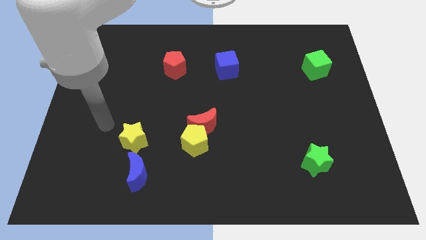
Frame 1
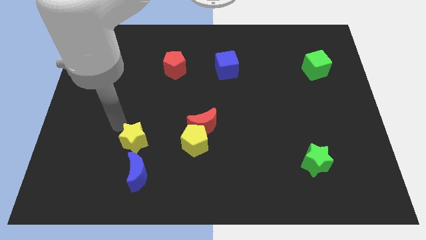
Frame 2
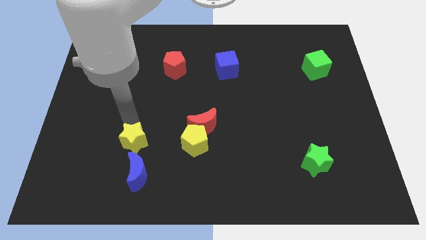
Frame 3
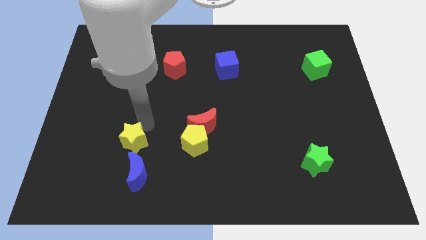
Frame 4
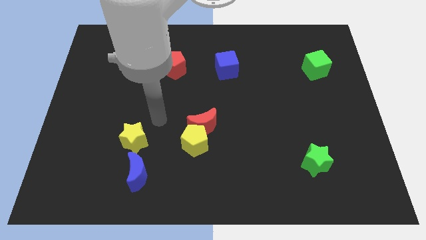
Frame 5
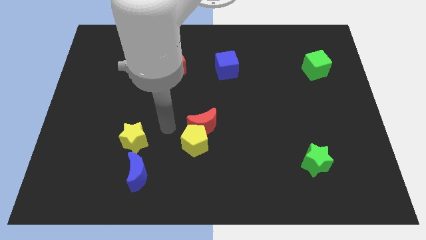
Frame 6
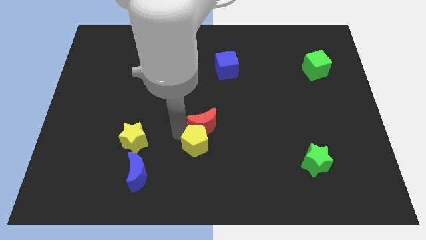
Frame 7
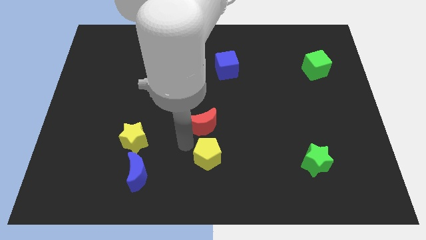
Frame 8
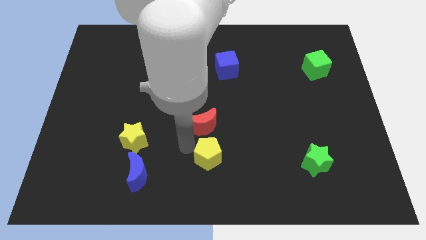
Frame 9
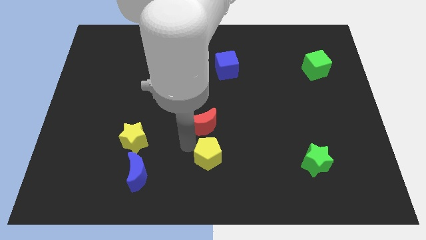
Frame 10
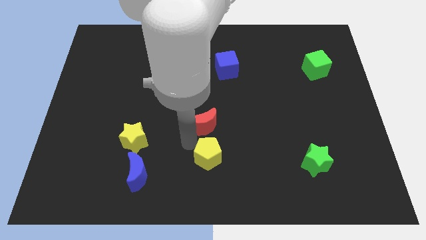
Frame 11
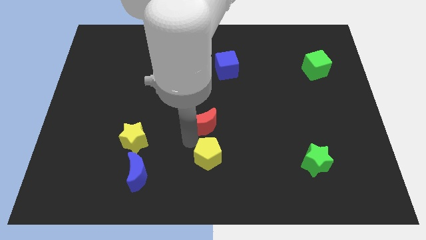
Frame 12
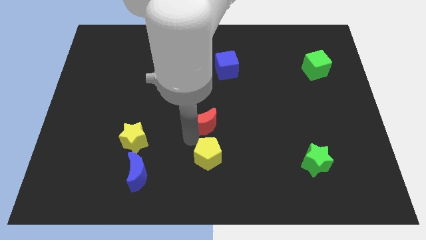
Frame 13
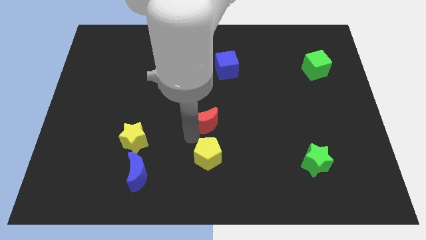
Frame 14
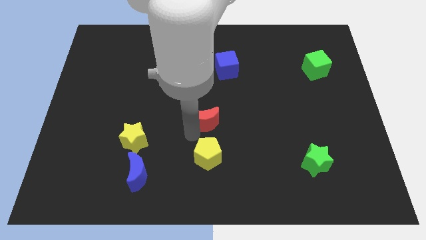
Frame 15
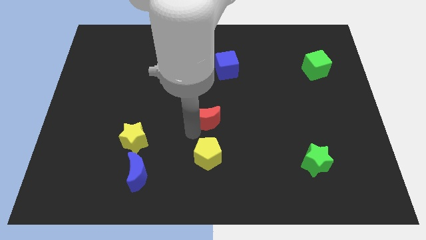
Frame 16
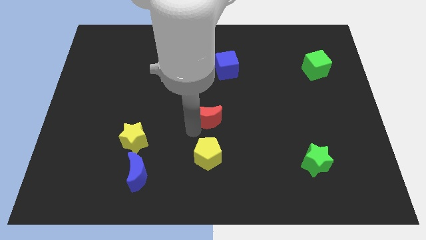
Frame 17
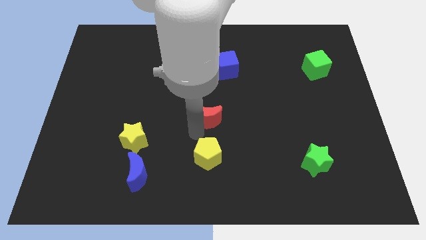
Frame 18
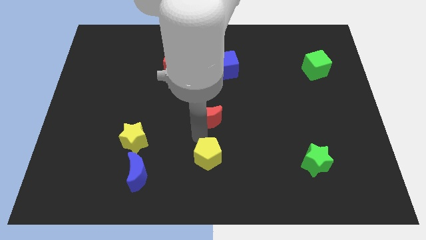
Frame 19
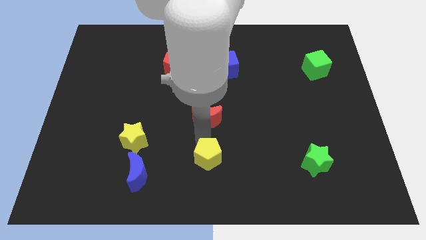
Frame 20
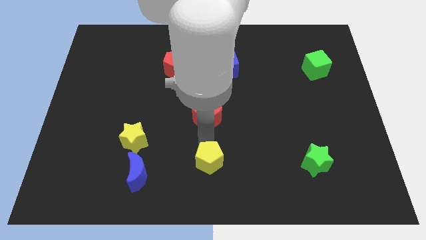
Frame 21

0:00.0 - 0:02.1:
separate the red moon from the yellow pentagon

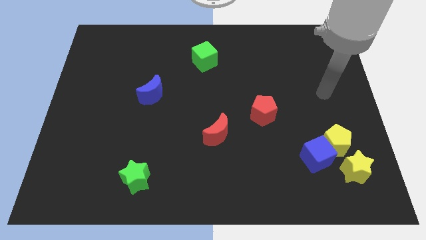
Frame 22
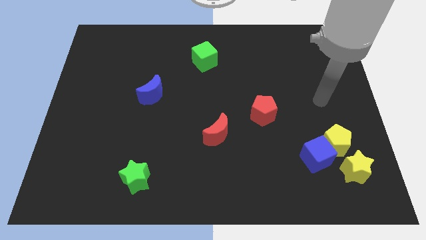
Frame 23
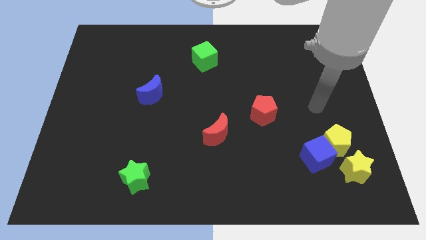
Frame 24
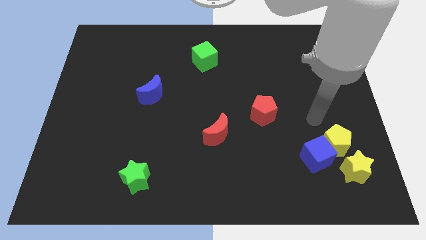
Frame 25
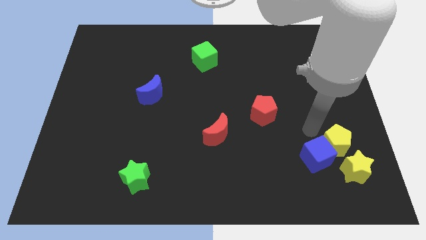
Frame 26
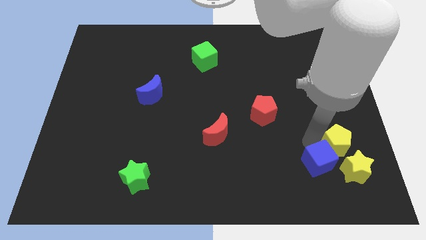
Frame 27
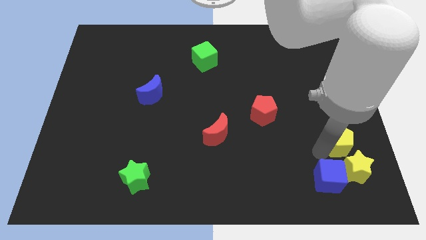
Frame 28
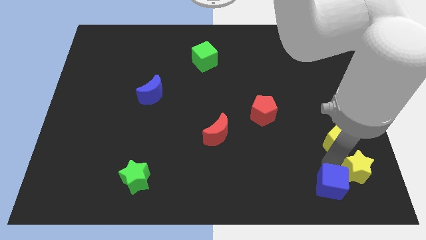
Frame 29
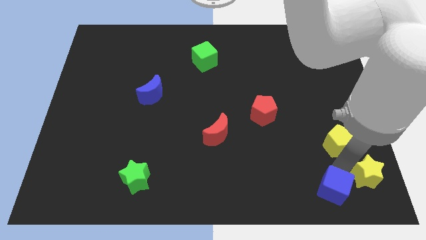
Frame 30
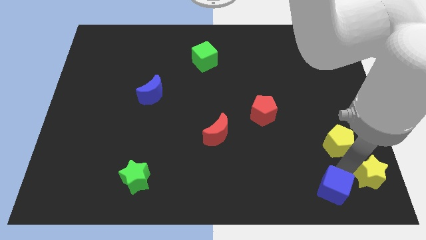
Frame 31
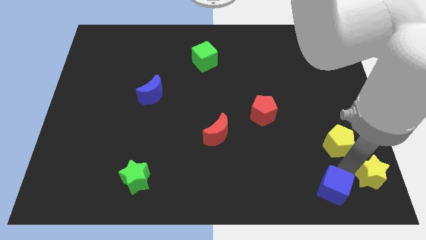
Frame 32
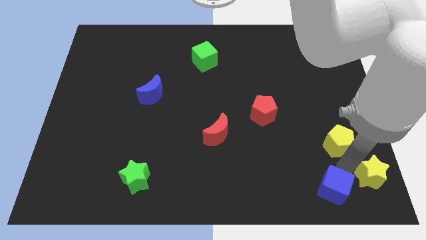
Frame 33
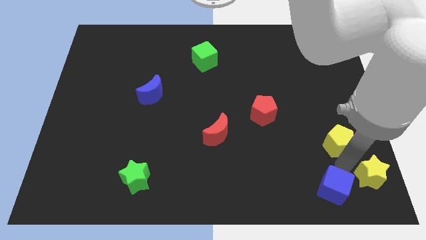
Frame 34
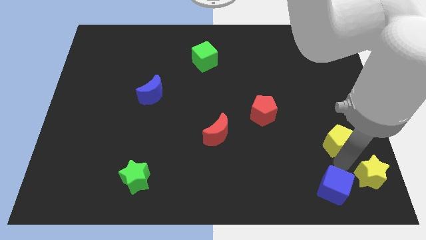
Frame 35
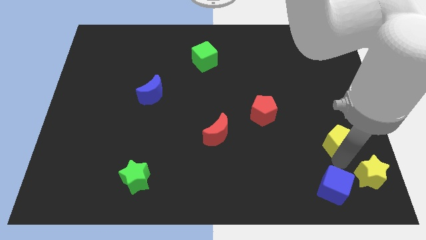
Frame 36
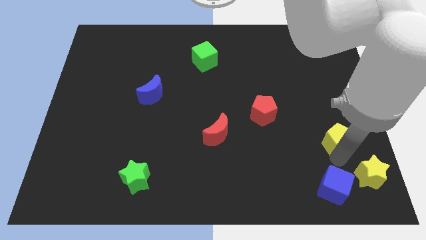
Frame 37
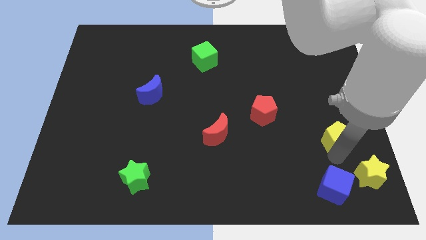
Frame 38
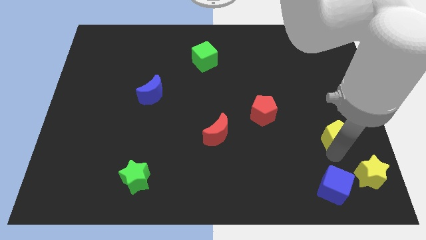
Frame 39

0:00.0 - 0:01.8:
move the yellow pentagon away from the blue cube and yellow star

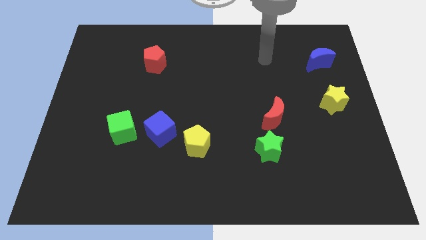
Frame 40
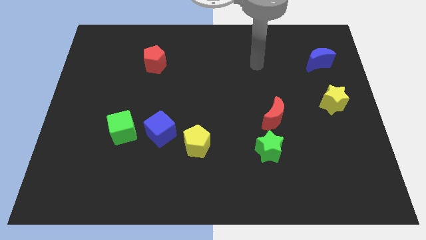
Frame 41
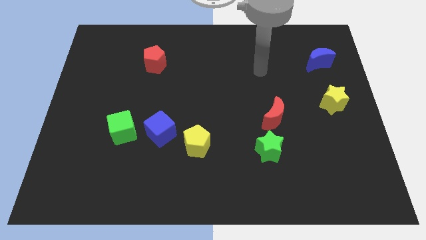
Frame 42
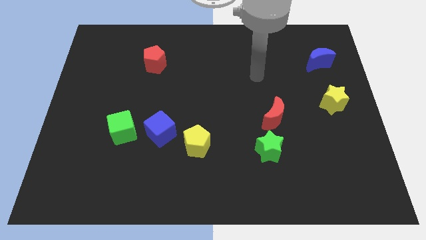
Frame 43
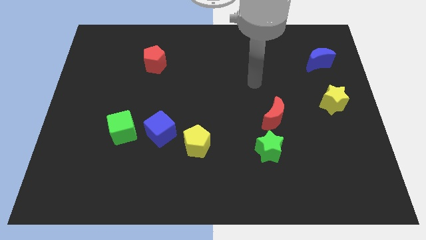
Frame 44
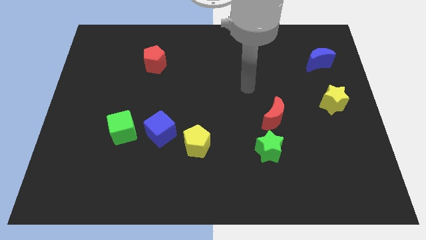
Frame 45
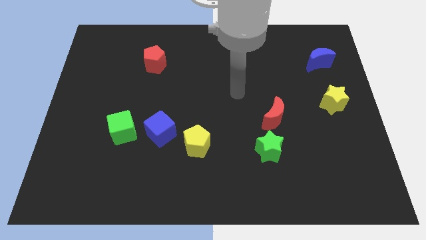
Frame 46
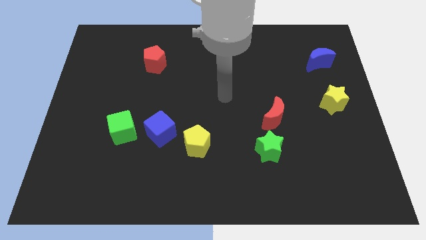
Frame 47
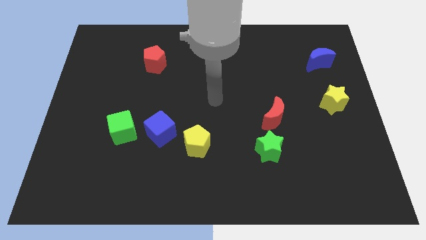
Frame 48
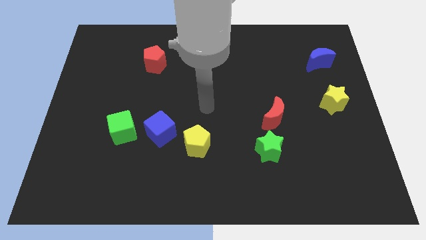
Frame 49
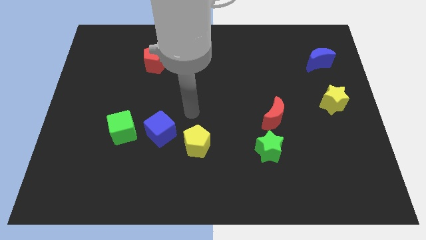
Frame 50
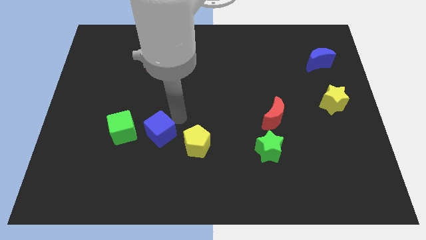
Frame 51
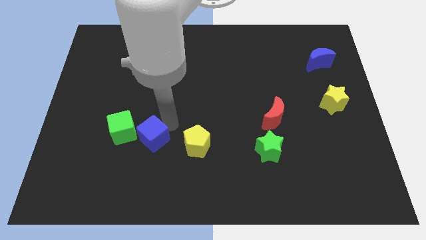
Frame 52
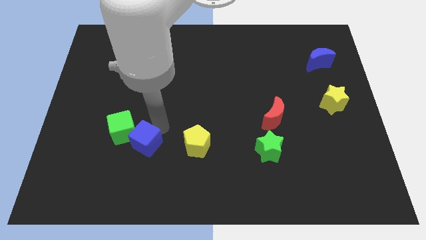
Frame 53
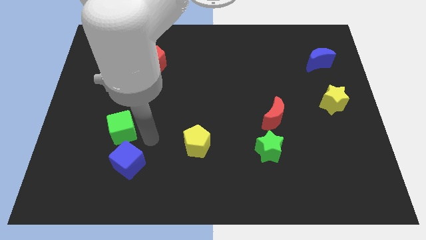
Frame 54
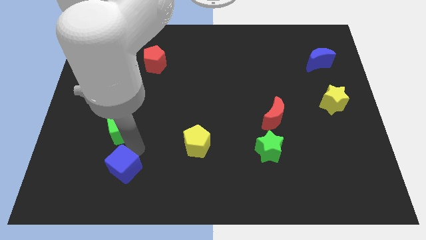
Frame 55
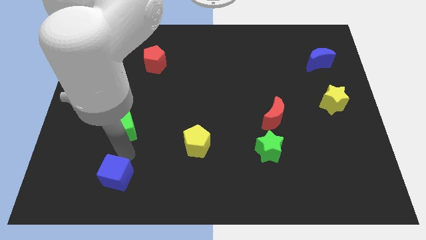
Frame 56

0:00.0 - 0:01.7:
pull the green cube apart from the blue cube

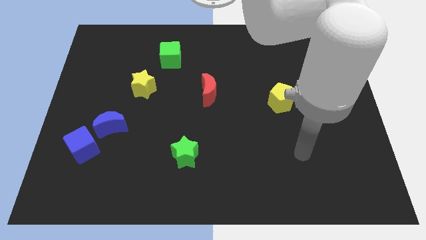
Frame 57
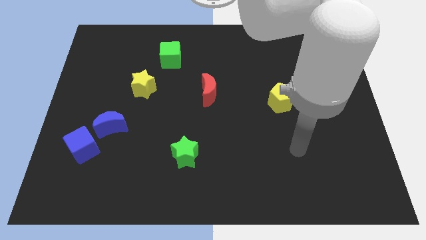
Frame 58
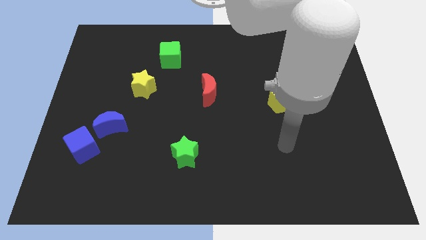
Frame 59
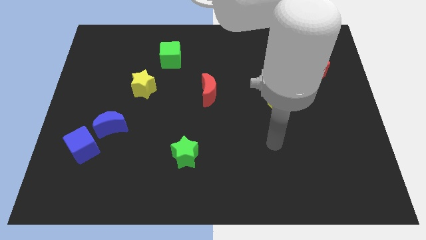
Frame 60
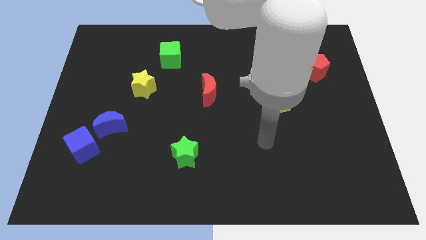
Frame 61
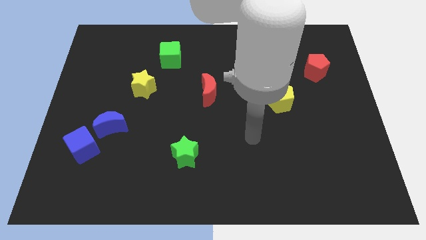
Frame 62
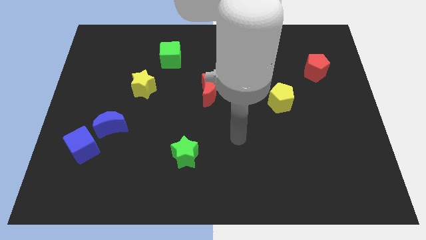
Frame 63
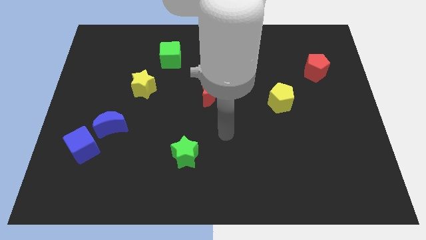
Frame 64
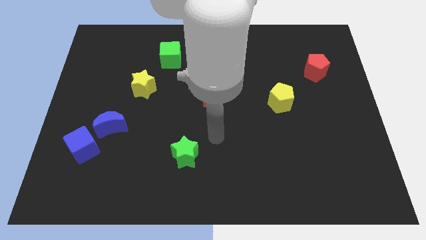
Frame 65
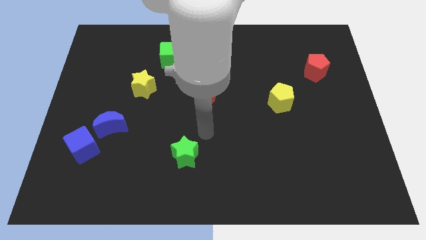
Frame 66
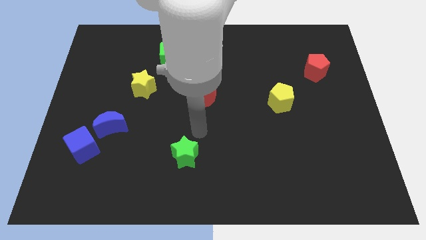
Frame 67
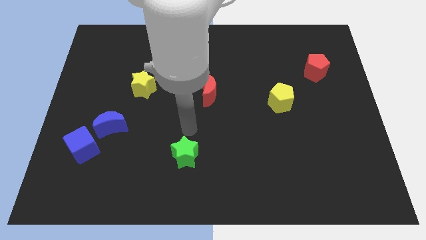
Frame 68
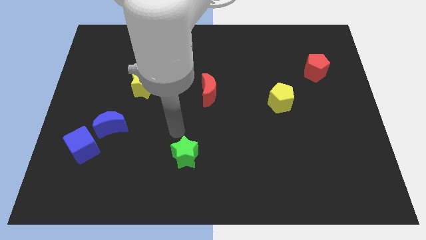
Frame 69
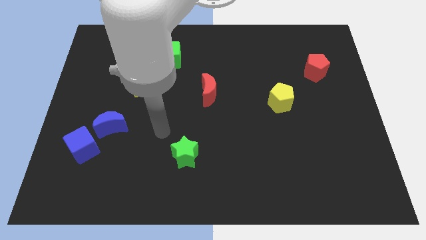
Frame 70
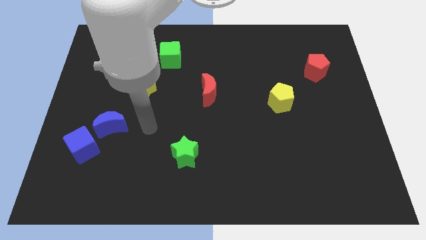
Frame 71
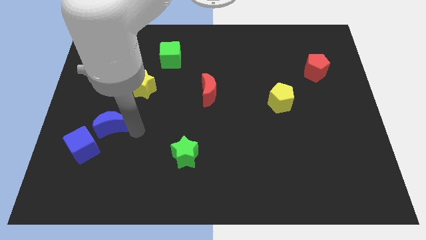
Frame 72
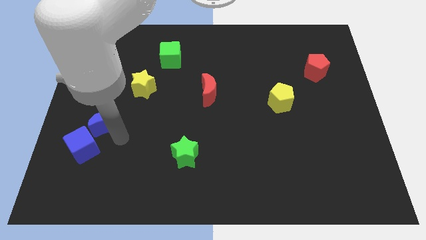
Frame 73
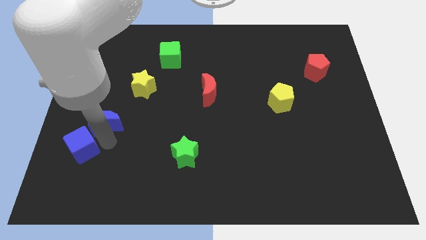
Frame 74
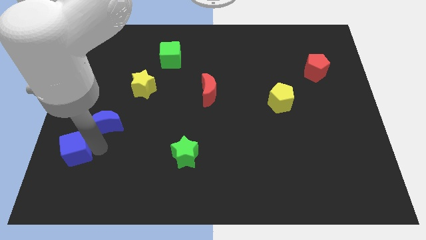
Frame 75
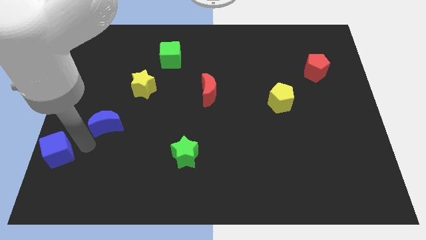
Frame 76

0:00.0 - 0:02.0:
pull the blue moon apart from the blue cube

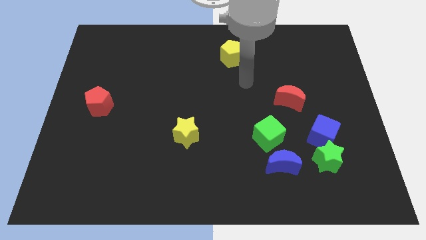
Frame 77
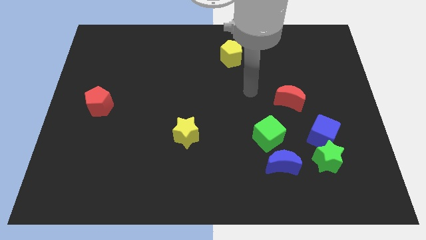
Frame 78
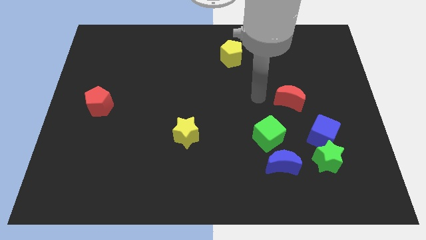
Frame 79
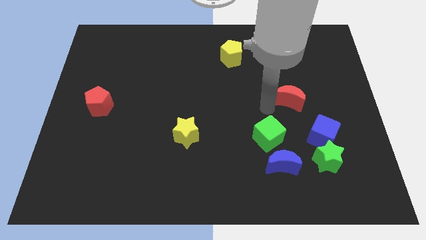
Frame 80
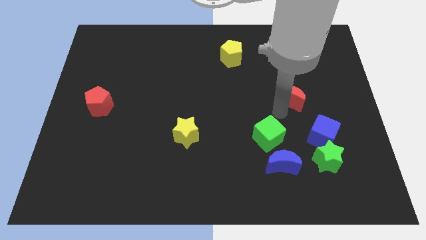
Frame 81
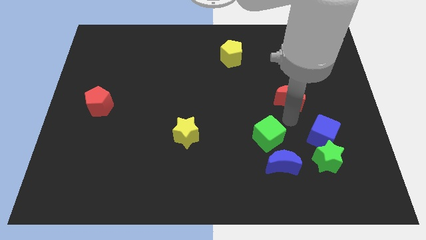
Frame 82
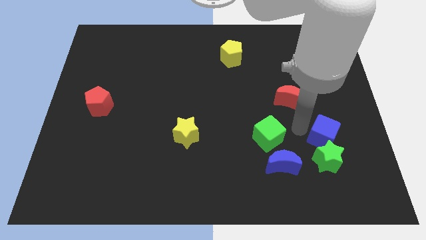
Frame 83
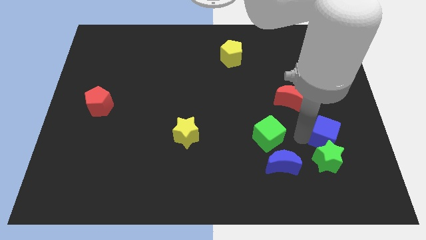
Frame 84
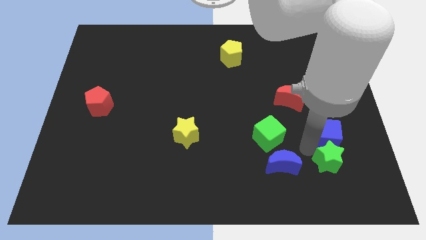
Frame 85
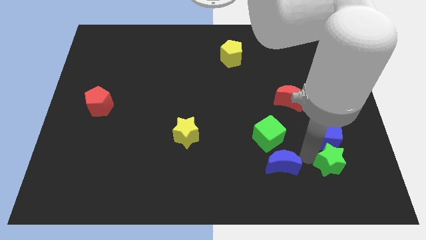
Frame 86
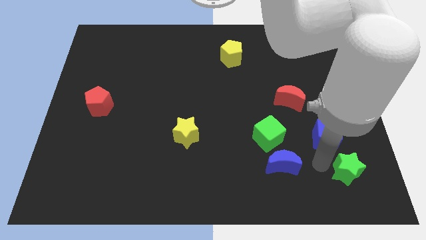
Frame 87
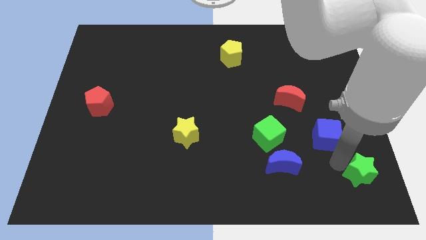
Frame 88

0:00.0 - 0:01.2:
separate the blue cube from the green star

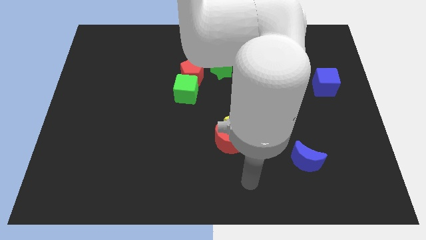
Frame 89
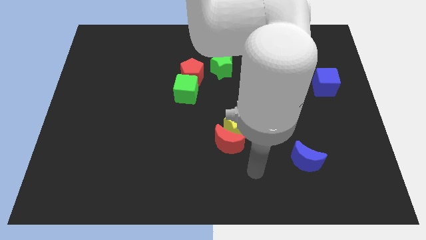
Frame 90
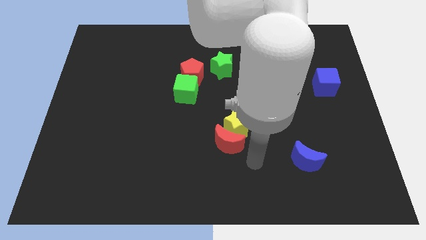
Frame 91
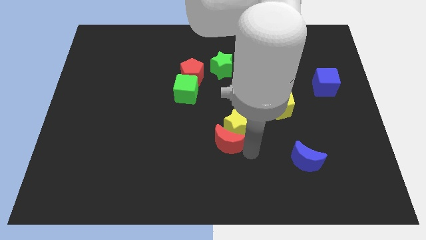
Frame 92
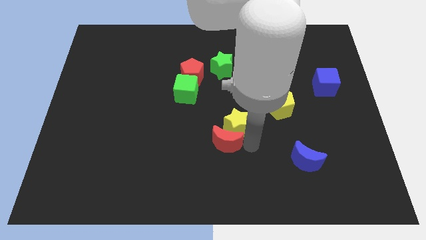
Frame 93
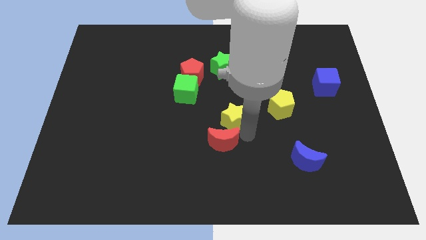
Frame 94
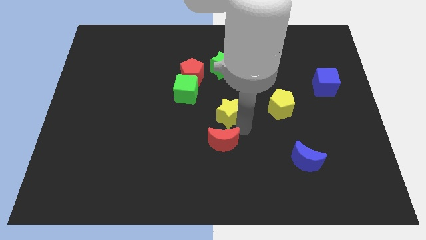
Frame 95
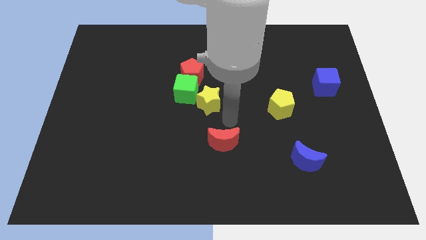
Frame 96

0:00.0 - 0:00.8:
pull the red moon apart from the yellow star
